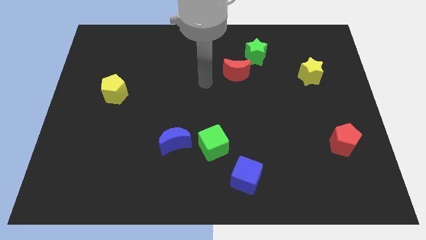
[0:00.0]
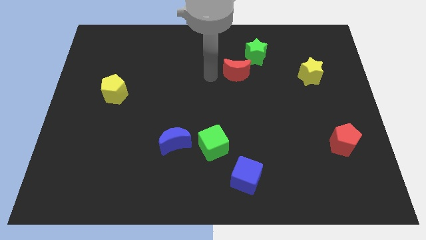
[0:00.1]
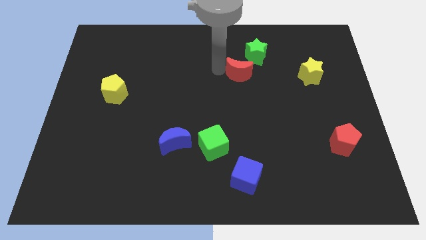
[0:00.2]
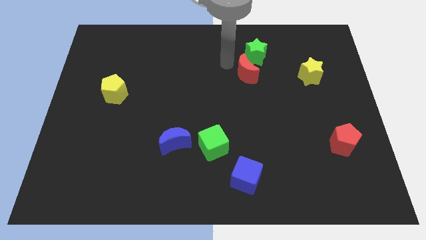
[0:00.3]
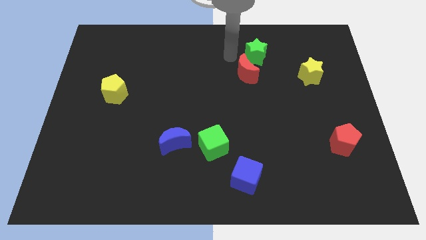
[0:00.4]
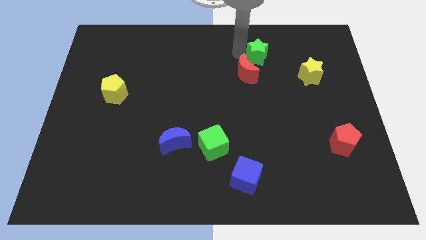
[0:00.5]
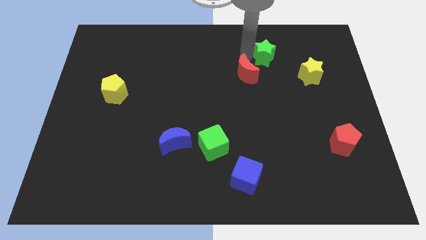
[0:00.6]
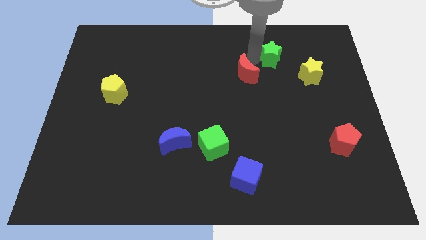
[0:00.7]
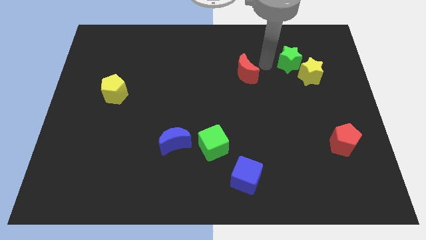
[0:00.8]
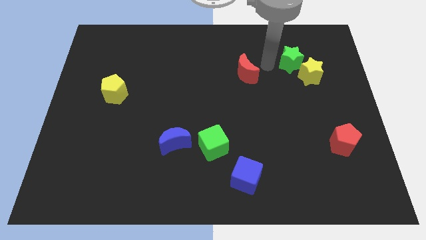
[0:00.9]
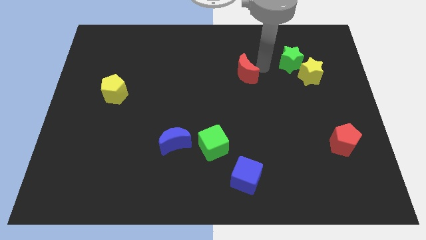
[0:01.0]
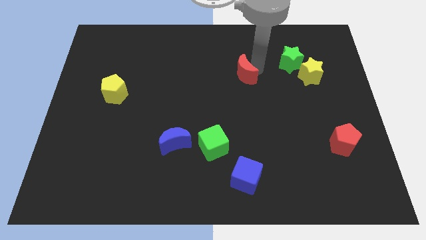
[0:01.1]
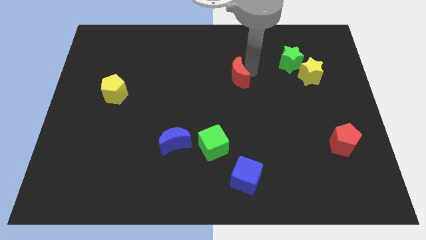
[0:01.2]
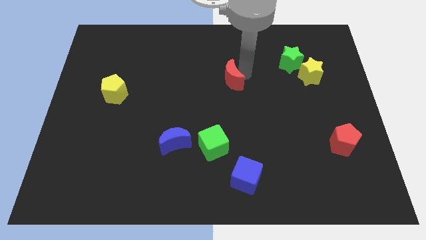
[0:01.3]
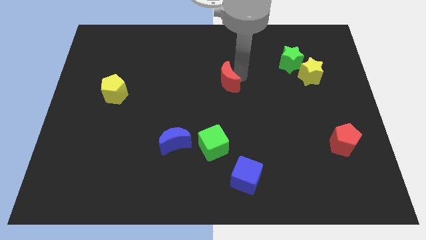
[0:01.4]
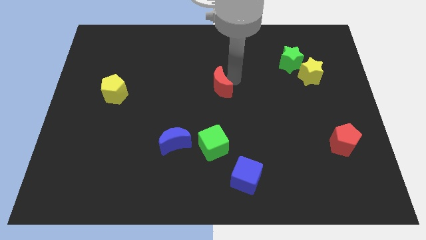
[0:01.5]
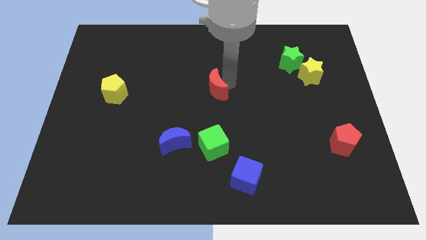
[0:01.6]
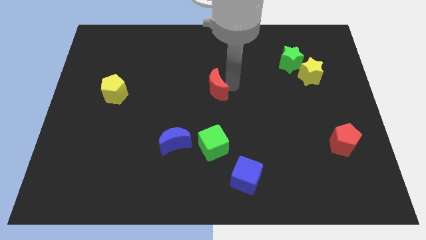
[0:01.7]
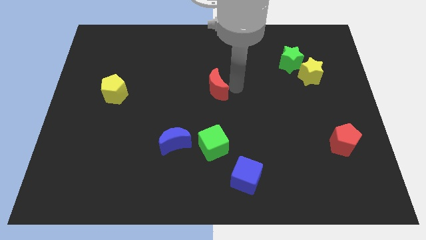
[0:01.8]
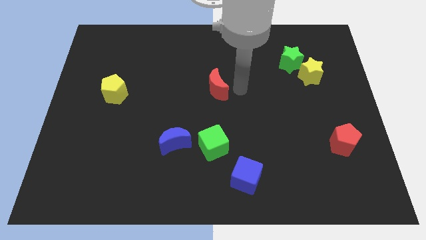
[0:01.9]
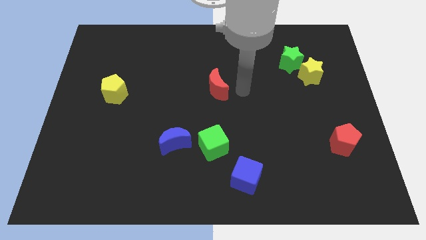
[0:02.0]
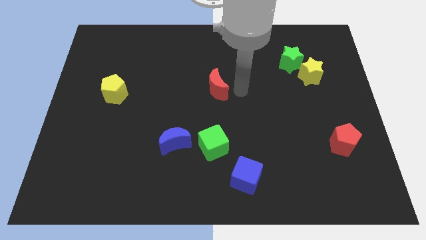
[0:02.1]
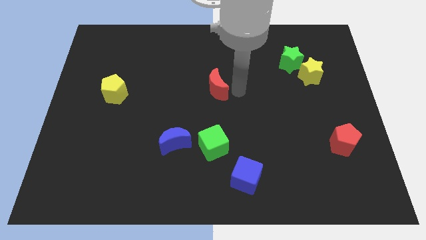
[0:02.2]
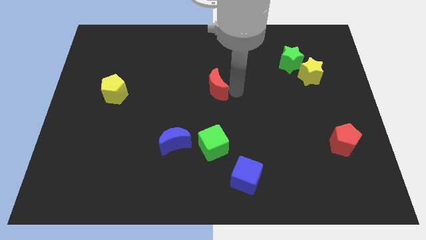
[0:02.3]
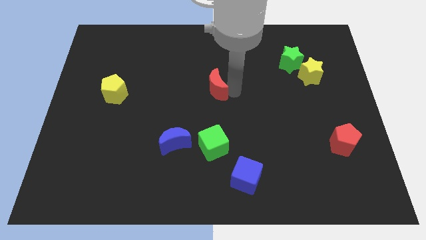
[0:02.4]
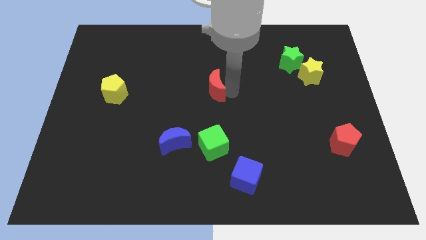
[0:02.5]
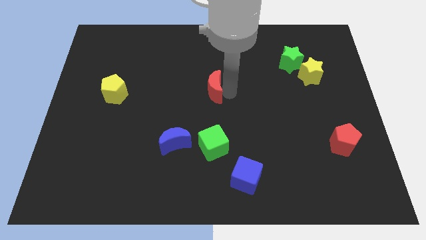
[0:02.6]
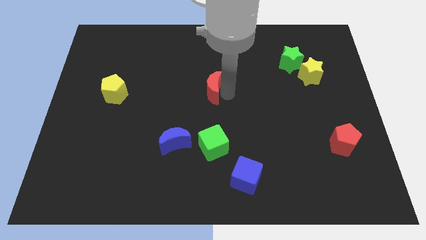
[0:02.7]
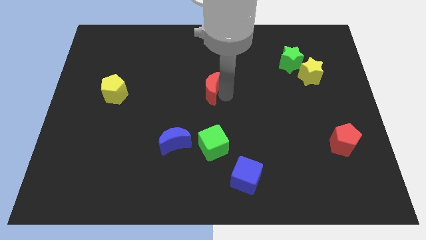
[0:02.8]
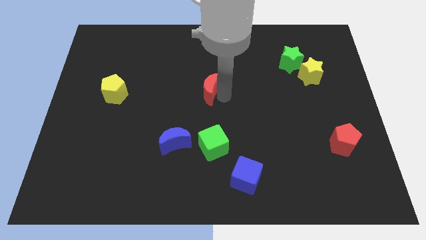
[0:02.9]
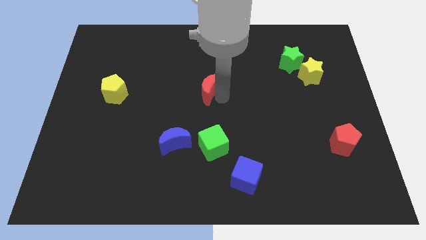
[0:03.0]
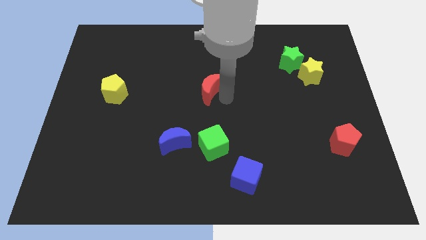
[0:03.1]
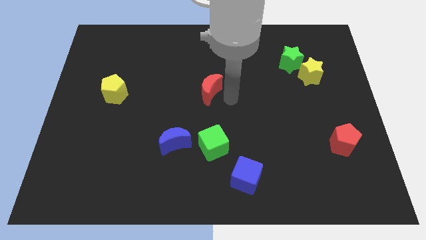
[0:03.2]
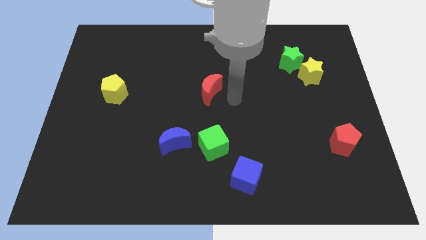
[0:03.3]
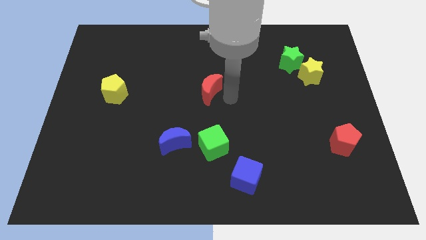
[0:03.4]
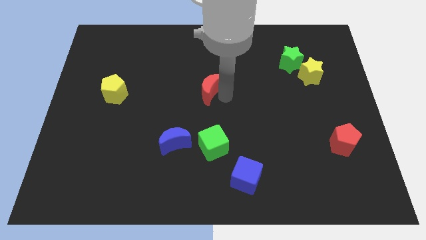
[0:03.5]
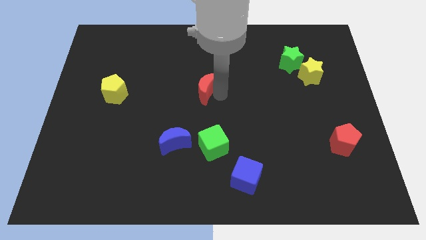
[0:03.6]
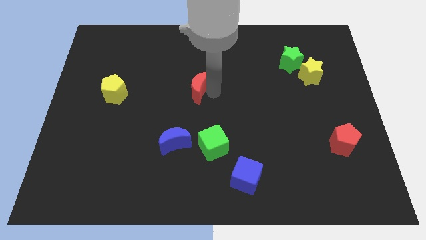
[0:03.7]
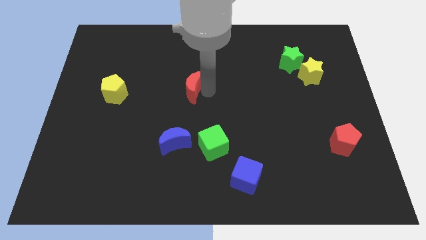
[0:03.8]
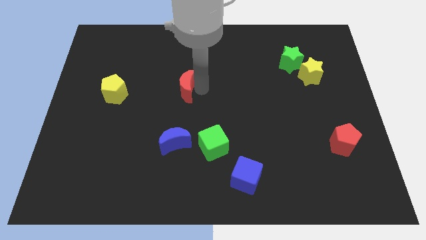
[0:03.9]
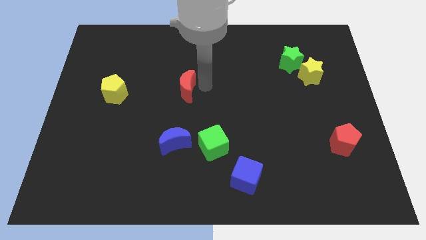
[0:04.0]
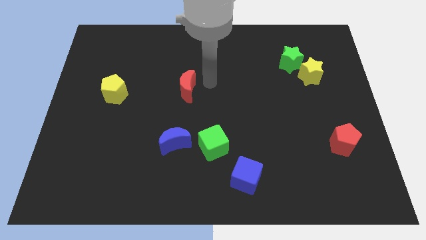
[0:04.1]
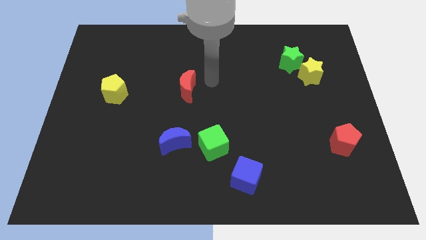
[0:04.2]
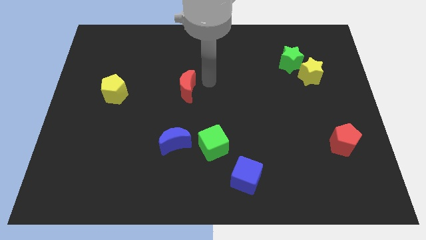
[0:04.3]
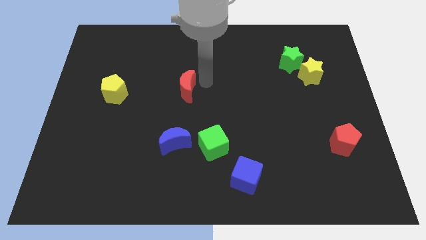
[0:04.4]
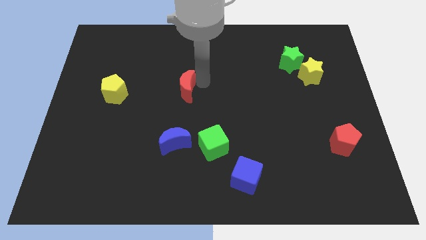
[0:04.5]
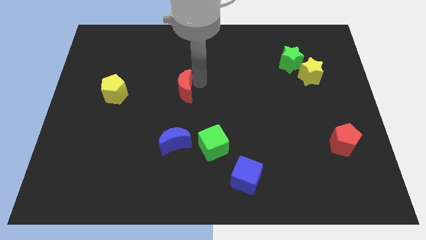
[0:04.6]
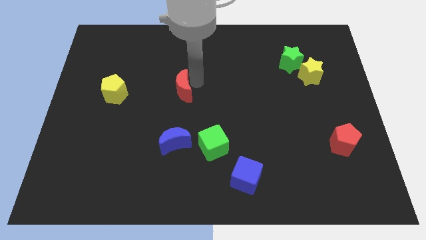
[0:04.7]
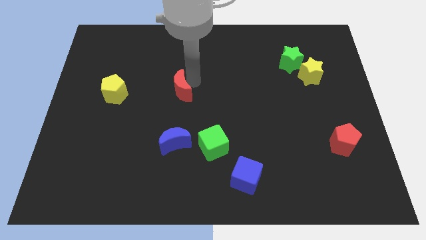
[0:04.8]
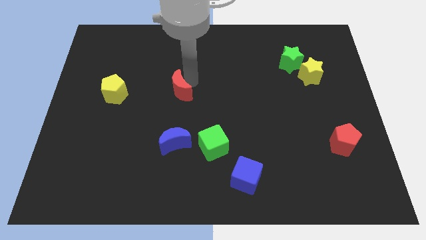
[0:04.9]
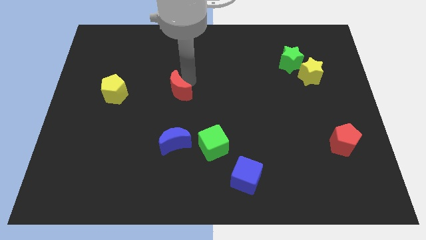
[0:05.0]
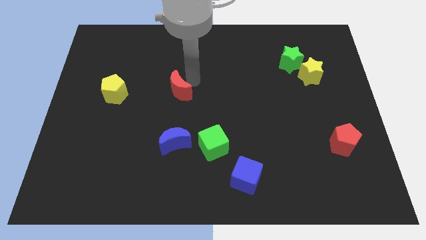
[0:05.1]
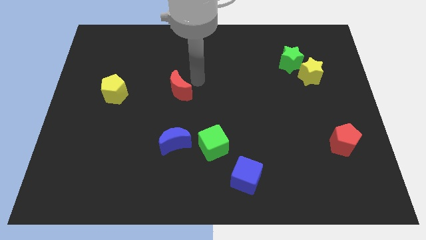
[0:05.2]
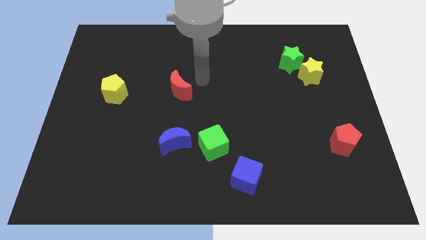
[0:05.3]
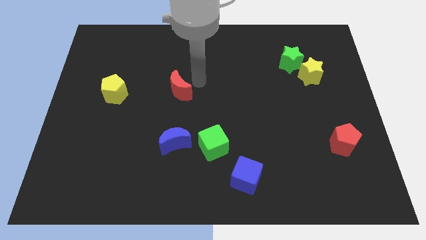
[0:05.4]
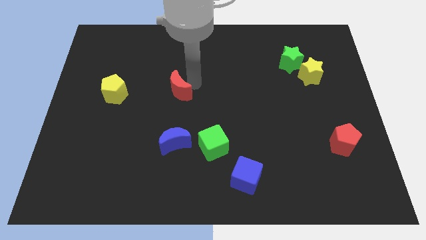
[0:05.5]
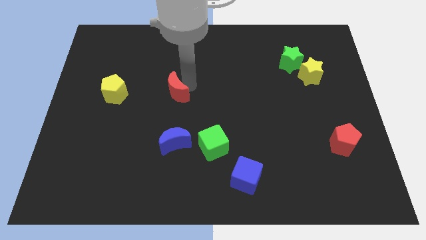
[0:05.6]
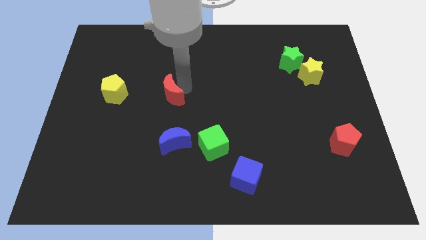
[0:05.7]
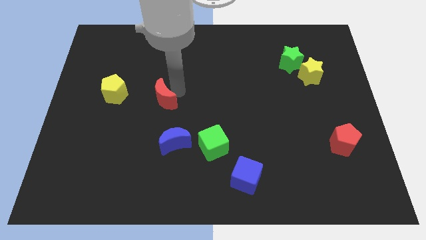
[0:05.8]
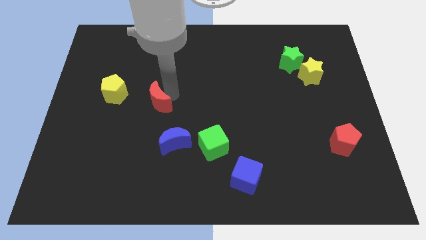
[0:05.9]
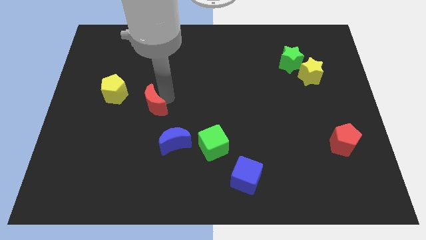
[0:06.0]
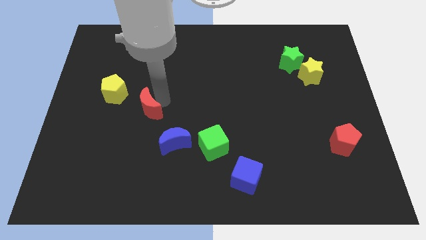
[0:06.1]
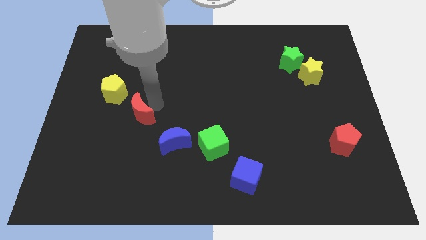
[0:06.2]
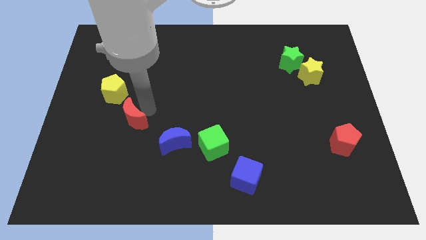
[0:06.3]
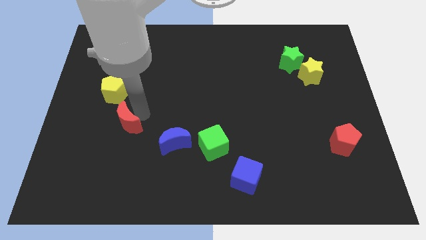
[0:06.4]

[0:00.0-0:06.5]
slide the red moon to the bottom side of the yellow pentagon

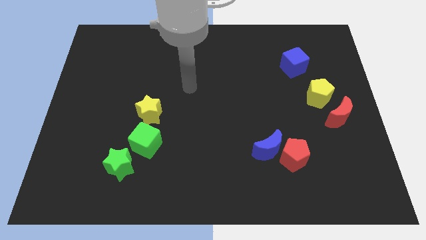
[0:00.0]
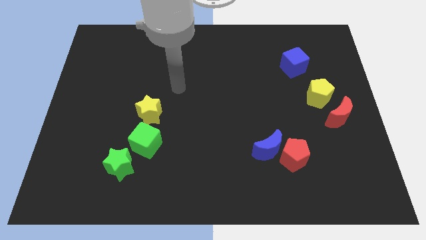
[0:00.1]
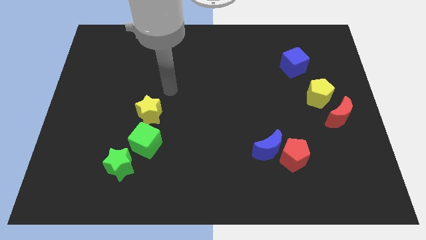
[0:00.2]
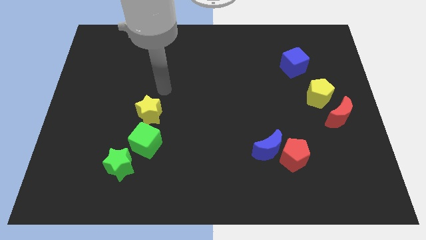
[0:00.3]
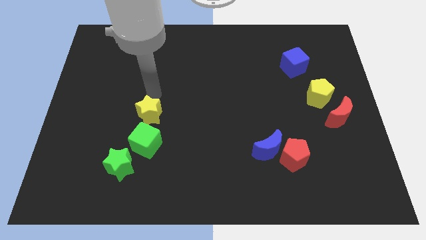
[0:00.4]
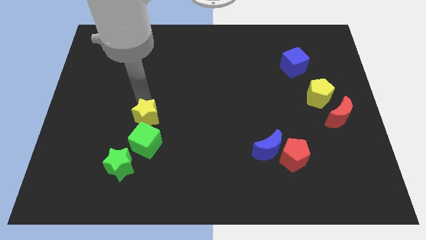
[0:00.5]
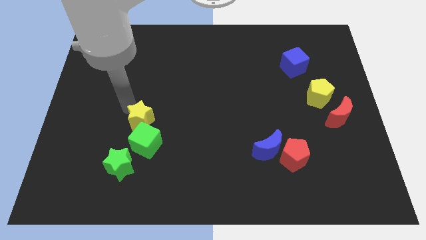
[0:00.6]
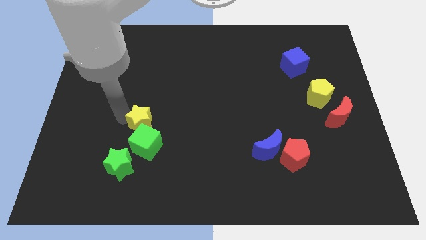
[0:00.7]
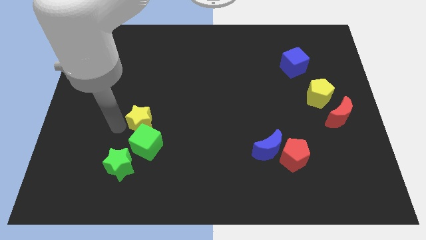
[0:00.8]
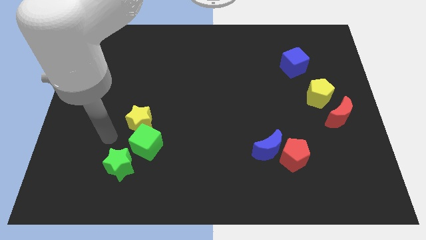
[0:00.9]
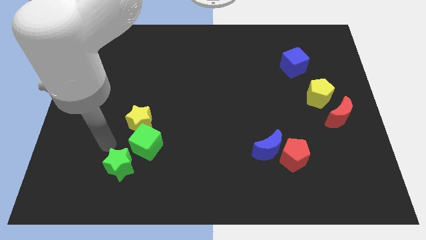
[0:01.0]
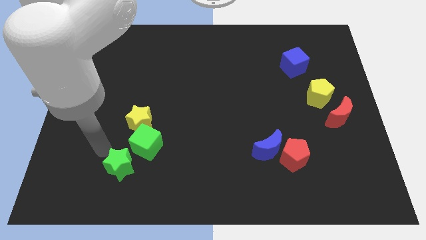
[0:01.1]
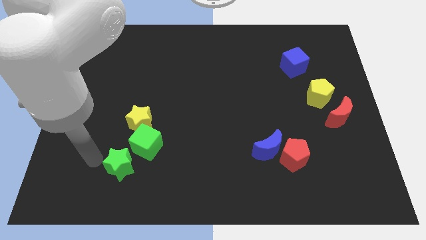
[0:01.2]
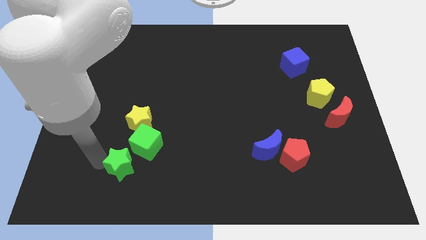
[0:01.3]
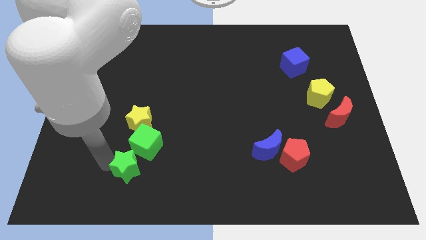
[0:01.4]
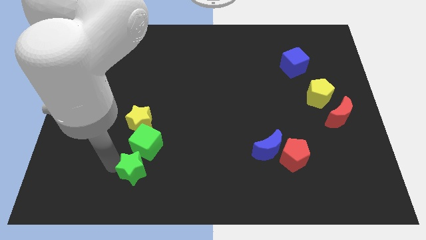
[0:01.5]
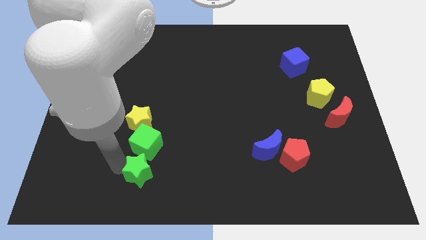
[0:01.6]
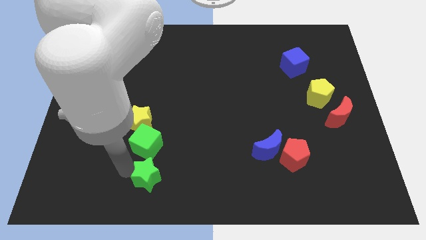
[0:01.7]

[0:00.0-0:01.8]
push the green star to the bottom right of the green cube
